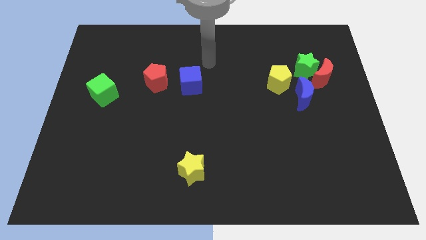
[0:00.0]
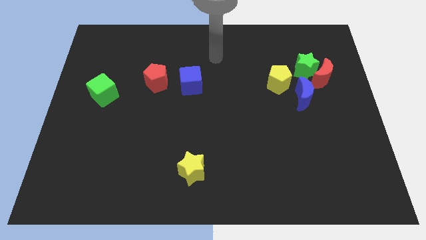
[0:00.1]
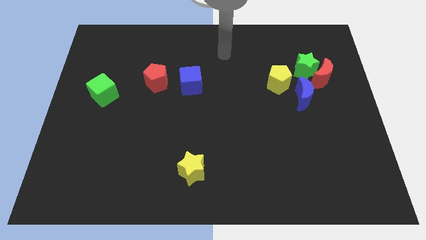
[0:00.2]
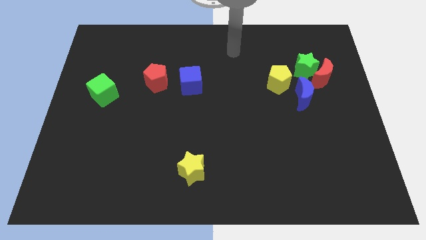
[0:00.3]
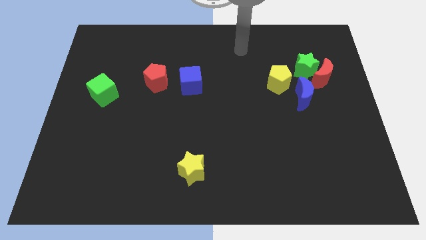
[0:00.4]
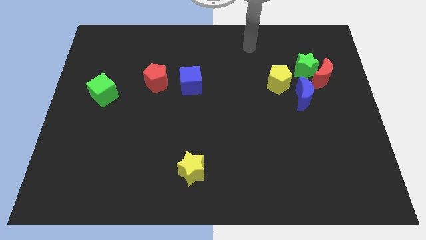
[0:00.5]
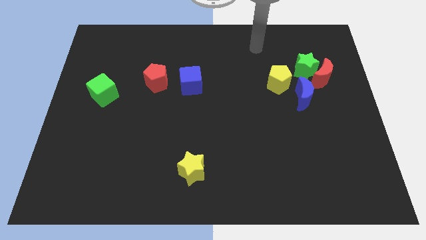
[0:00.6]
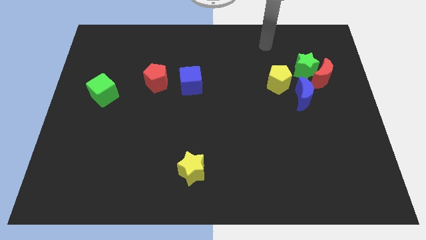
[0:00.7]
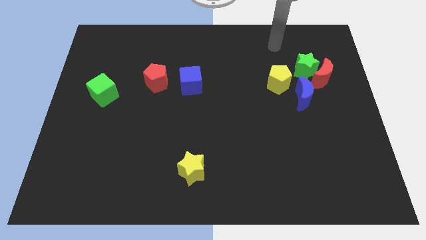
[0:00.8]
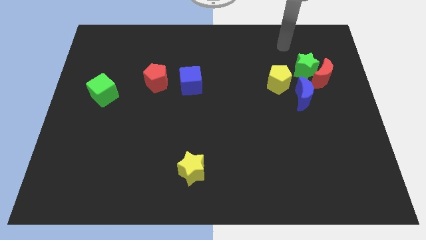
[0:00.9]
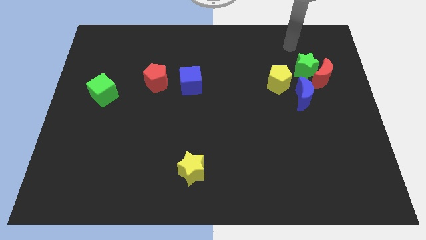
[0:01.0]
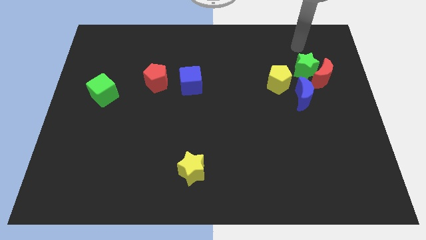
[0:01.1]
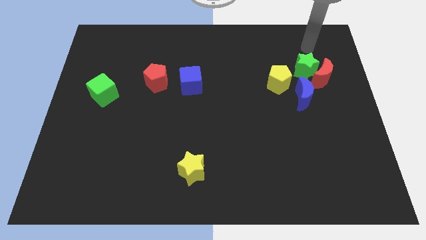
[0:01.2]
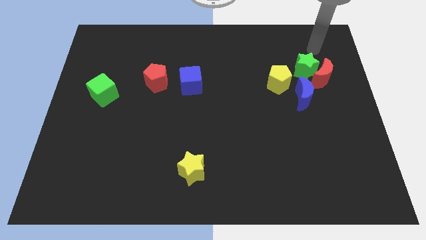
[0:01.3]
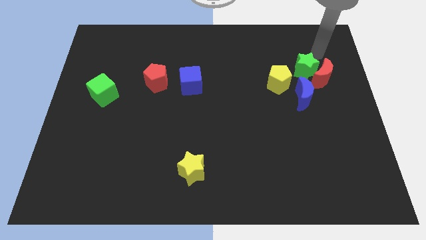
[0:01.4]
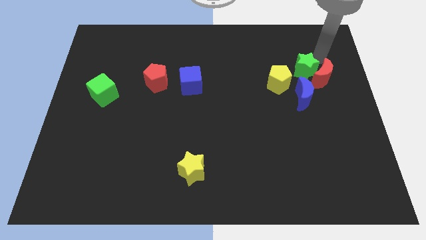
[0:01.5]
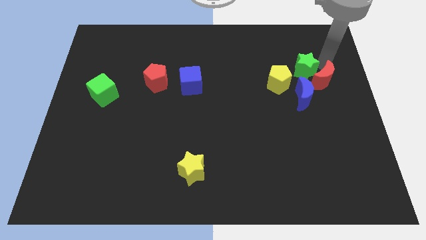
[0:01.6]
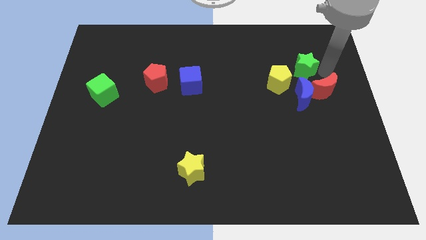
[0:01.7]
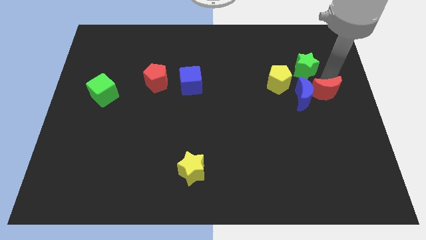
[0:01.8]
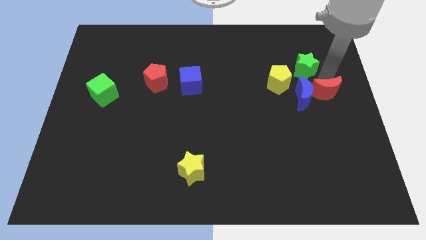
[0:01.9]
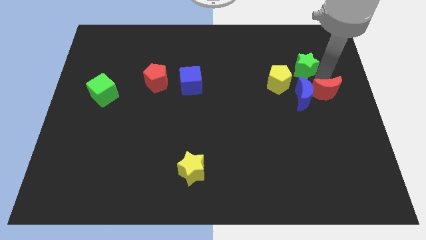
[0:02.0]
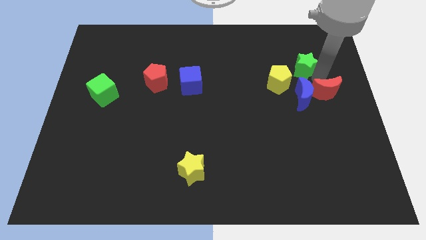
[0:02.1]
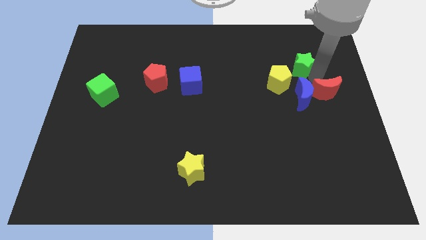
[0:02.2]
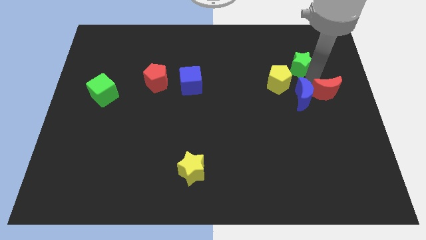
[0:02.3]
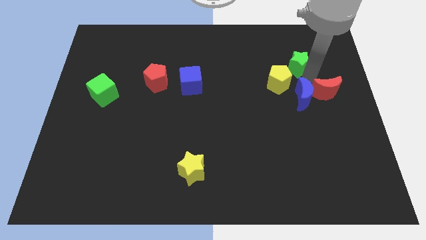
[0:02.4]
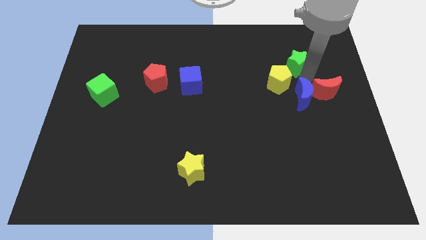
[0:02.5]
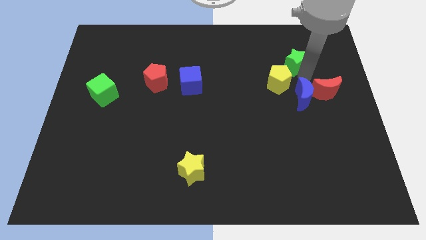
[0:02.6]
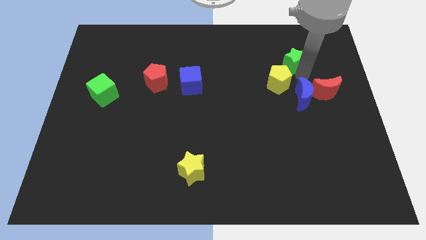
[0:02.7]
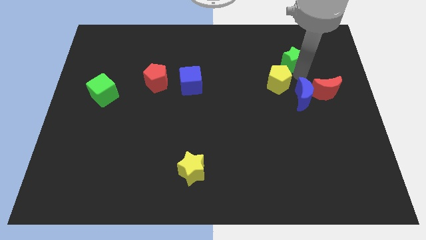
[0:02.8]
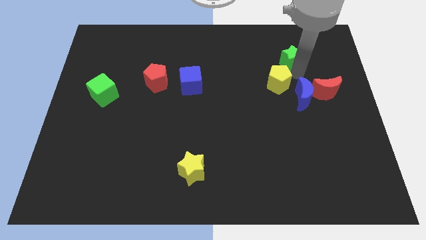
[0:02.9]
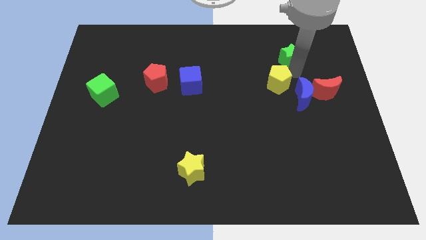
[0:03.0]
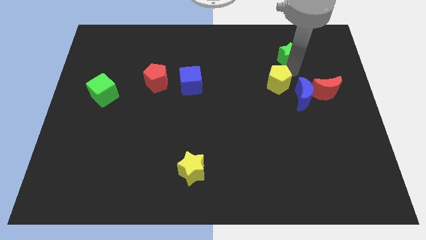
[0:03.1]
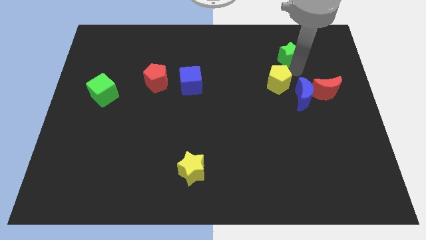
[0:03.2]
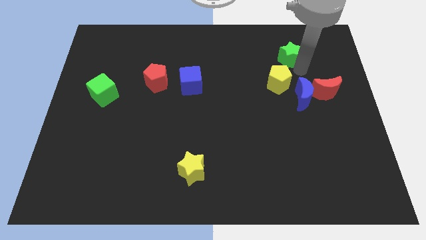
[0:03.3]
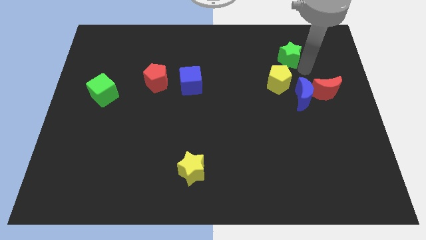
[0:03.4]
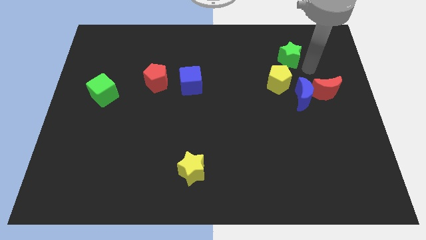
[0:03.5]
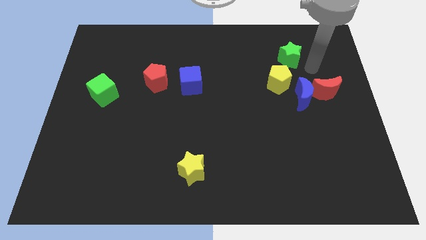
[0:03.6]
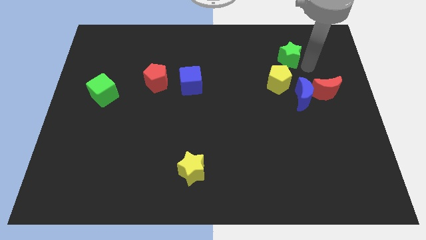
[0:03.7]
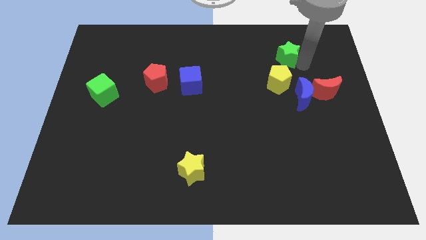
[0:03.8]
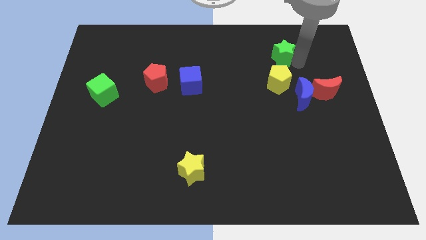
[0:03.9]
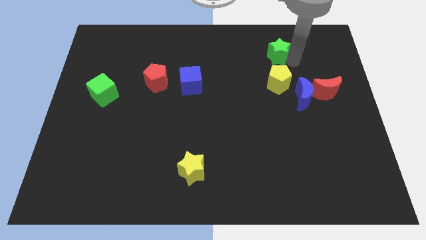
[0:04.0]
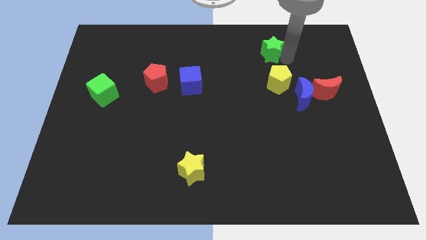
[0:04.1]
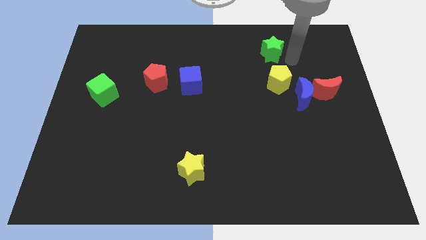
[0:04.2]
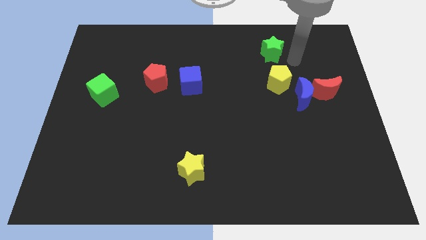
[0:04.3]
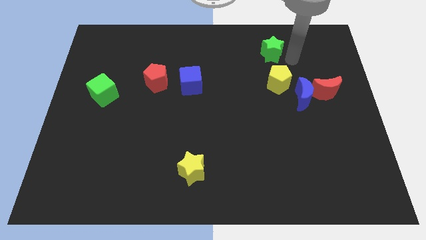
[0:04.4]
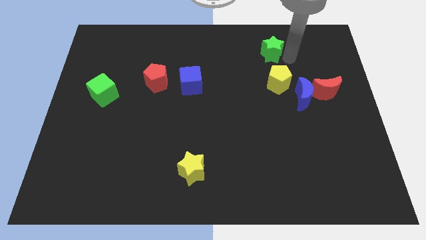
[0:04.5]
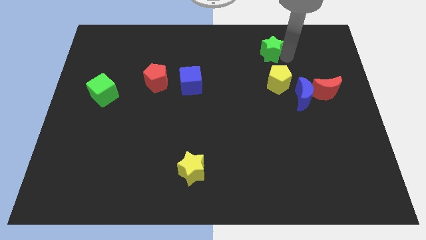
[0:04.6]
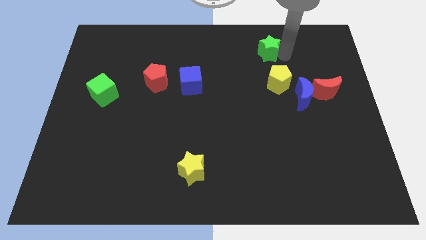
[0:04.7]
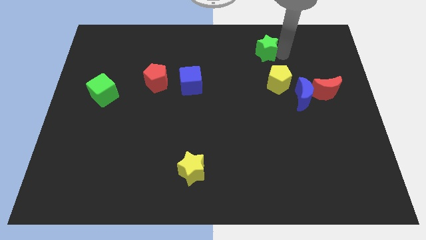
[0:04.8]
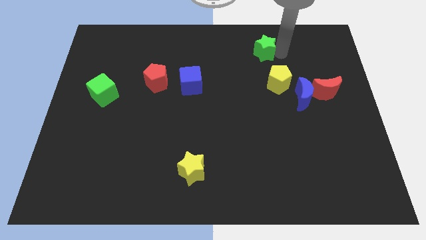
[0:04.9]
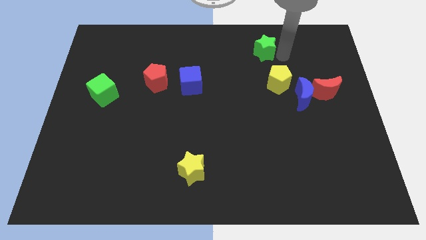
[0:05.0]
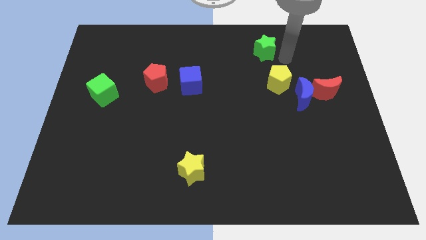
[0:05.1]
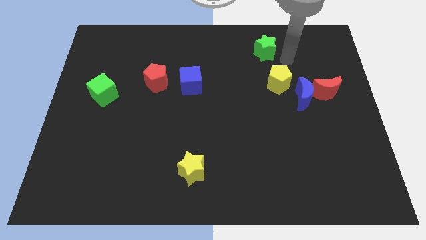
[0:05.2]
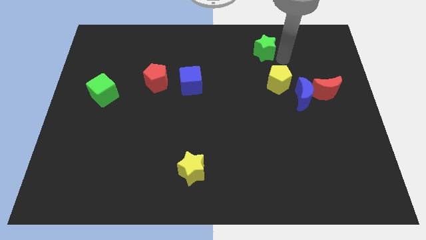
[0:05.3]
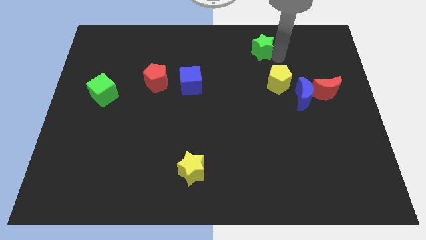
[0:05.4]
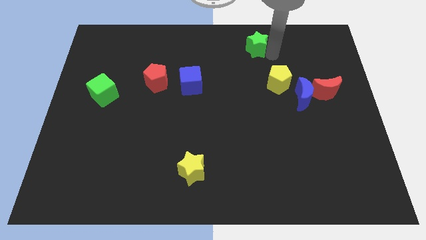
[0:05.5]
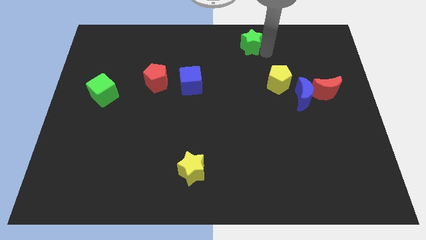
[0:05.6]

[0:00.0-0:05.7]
push the green star to the top
